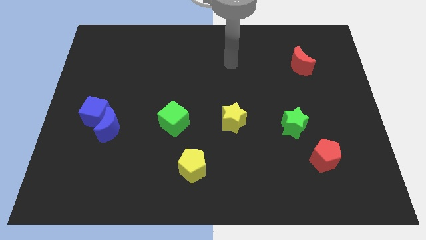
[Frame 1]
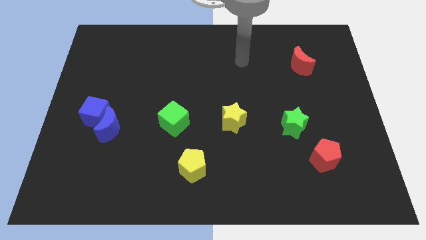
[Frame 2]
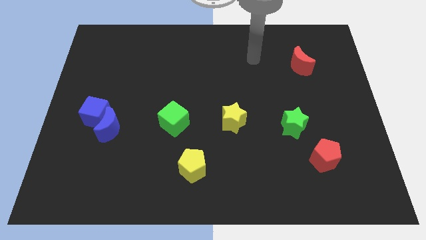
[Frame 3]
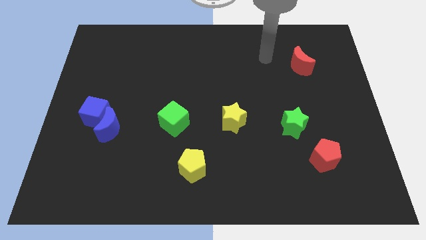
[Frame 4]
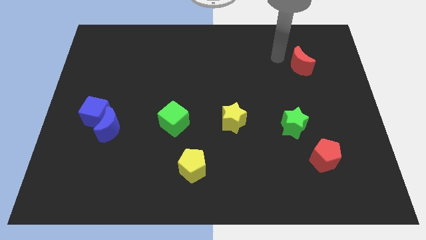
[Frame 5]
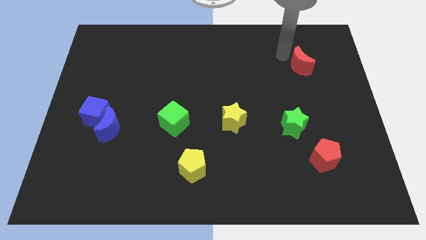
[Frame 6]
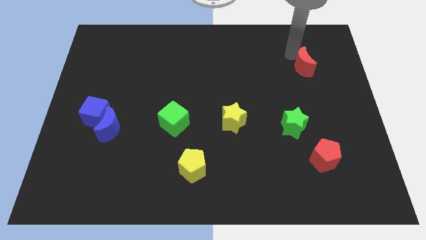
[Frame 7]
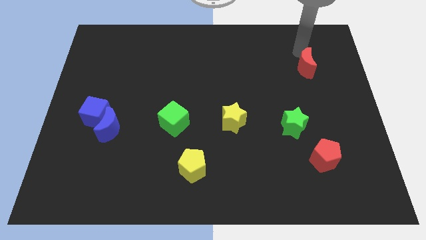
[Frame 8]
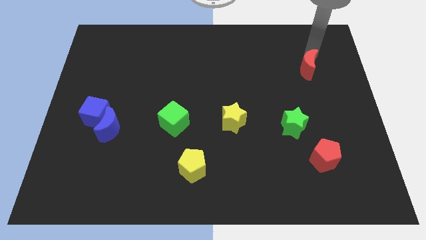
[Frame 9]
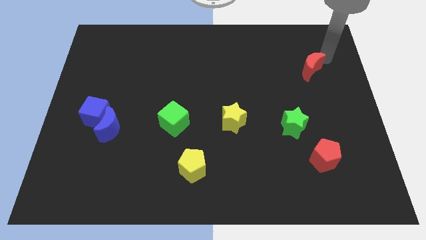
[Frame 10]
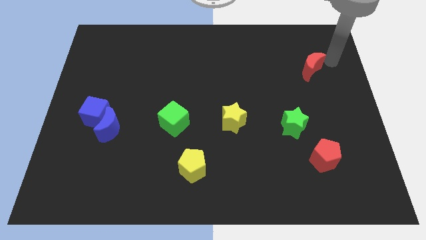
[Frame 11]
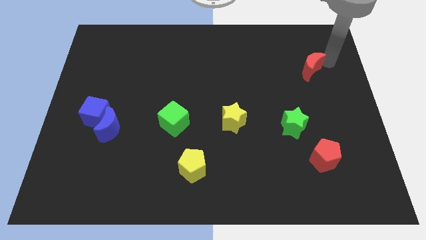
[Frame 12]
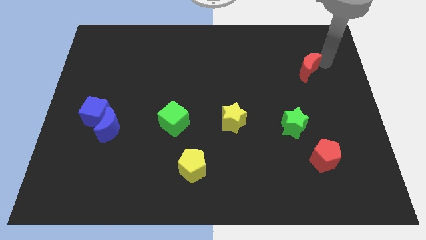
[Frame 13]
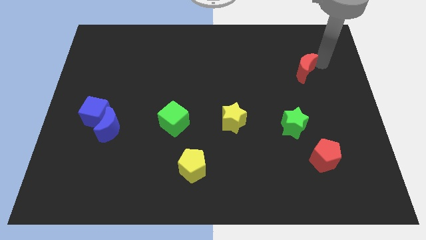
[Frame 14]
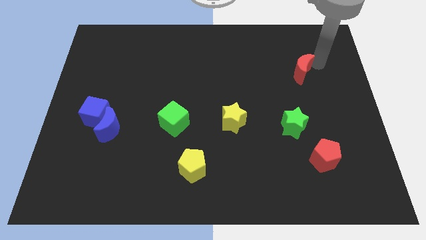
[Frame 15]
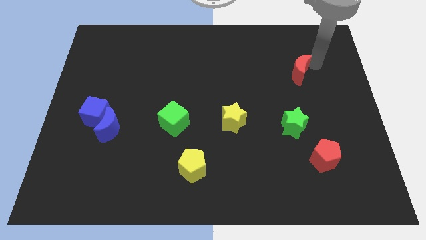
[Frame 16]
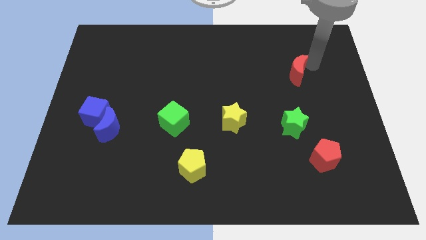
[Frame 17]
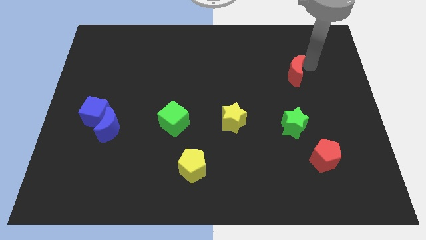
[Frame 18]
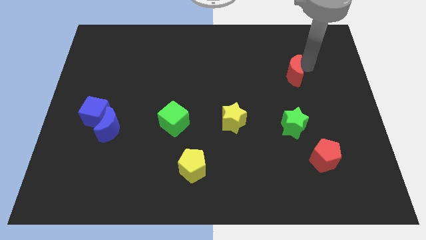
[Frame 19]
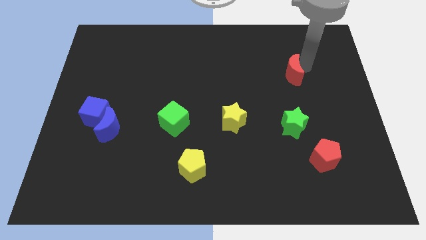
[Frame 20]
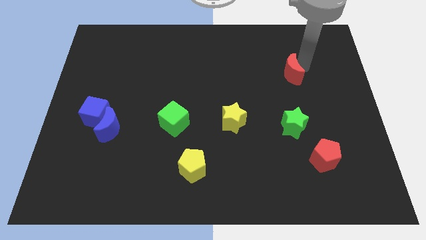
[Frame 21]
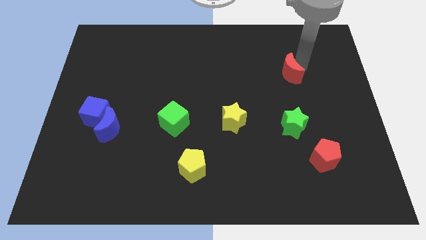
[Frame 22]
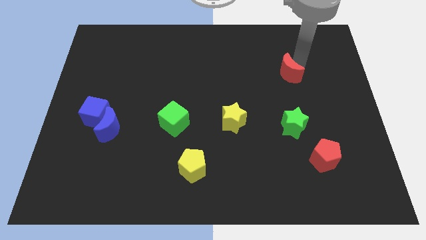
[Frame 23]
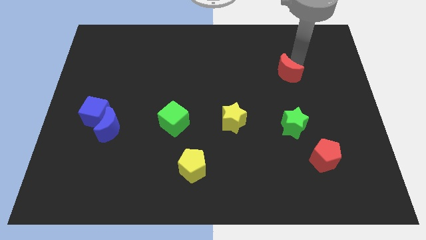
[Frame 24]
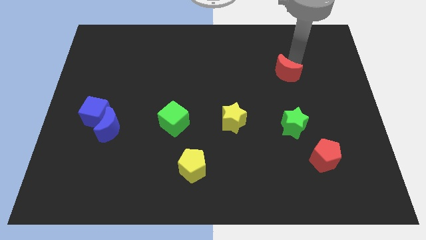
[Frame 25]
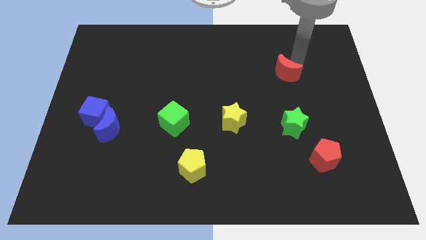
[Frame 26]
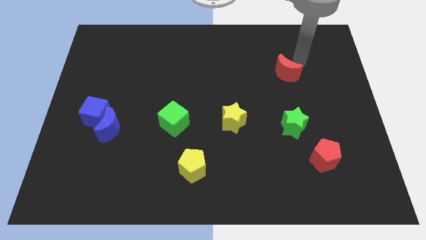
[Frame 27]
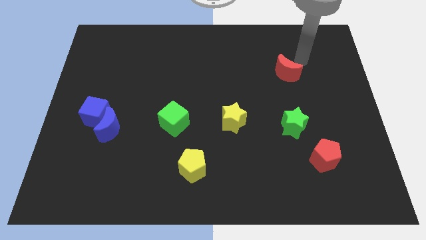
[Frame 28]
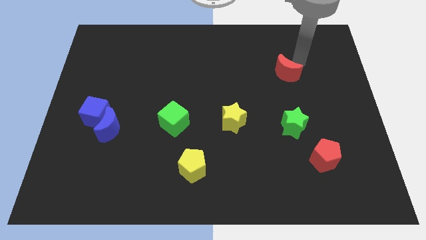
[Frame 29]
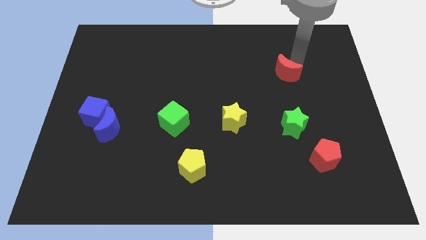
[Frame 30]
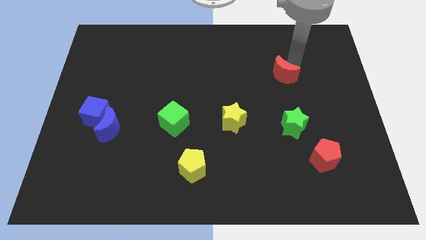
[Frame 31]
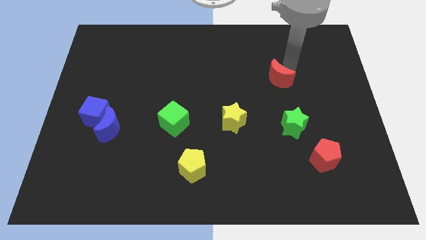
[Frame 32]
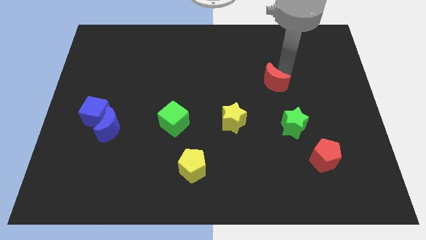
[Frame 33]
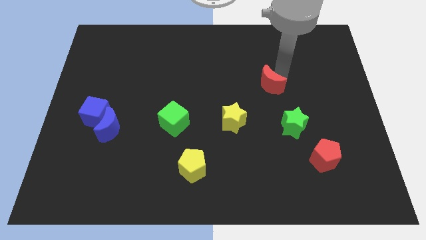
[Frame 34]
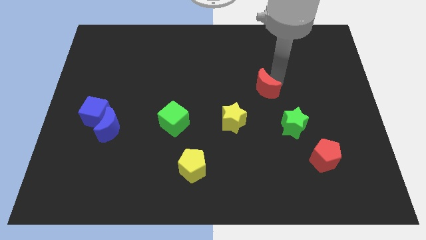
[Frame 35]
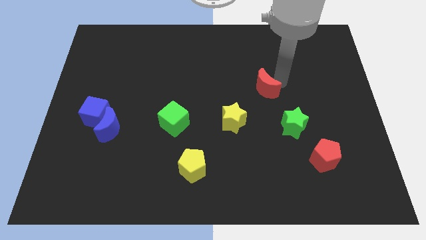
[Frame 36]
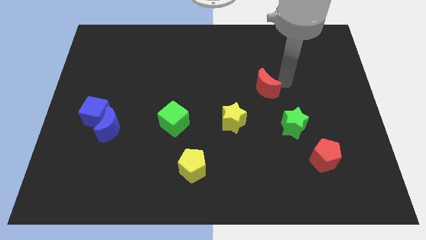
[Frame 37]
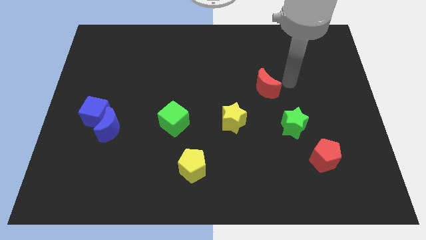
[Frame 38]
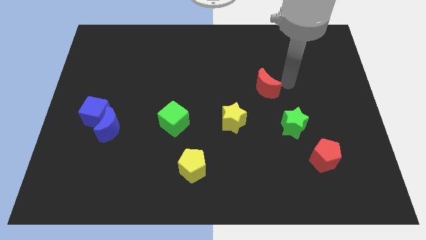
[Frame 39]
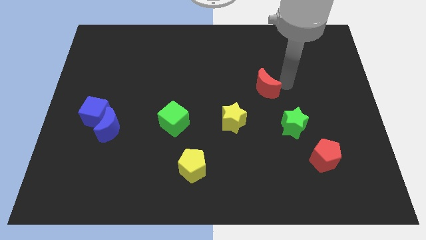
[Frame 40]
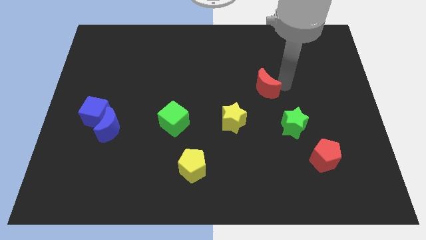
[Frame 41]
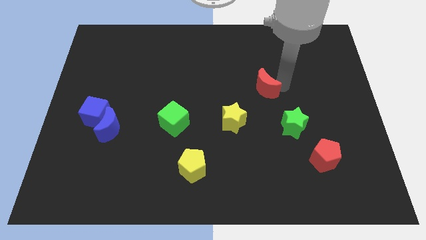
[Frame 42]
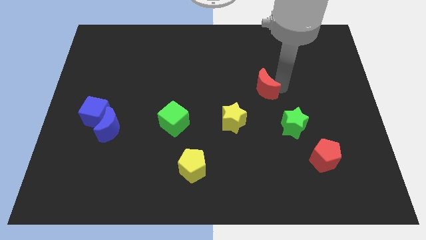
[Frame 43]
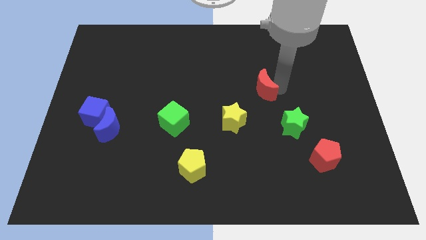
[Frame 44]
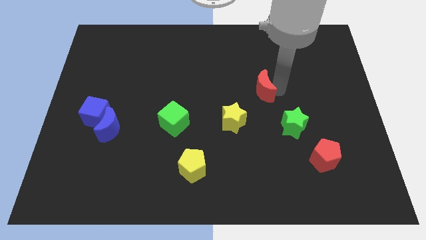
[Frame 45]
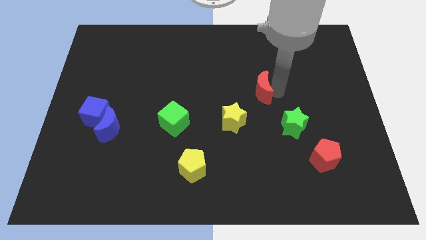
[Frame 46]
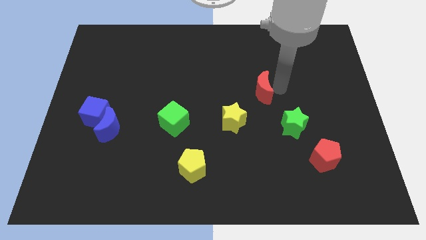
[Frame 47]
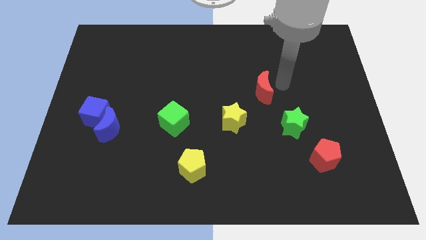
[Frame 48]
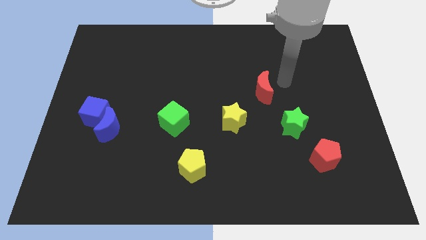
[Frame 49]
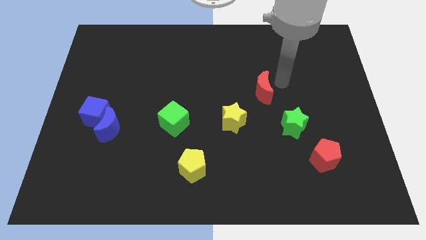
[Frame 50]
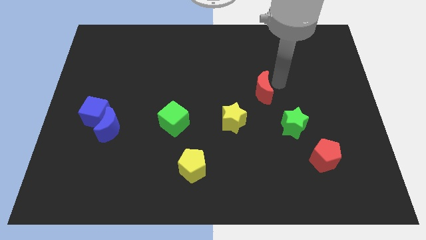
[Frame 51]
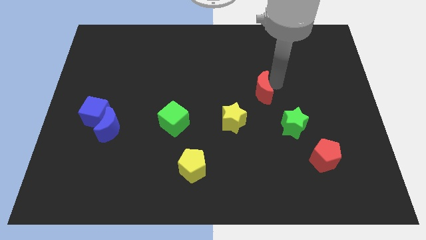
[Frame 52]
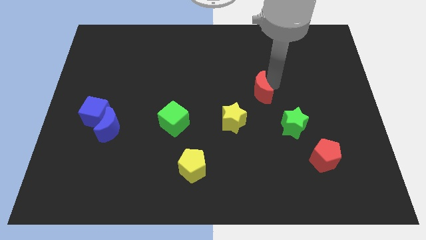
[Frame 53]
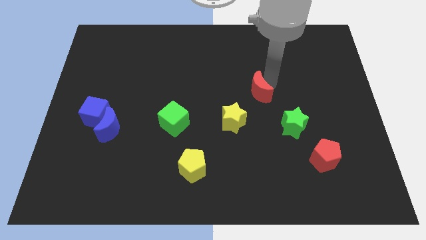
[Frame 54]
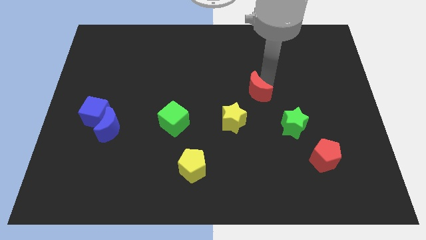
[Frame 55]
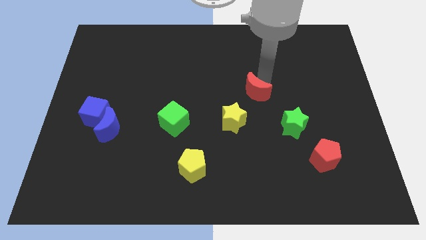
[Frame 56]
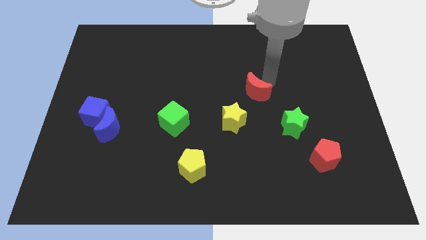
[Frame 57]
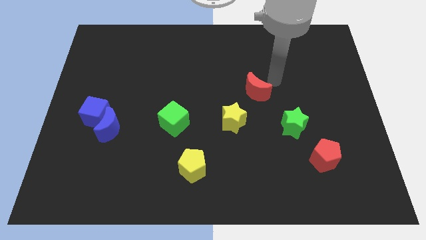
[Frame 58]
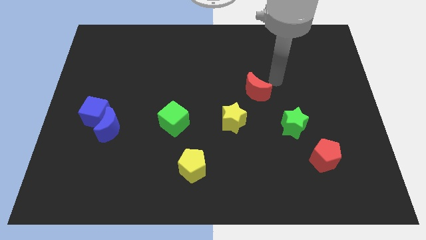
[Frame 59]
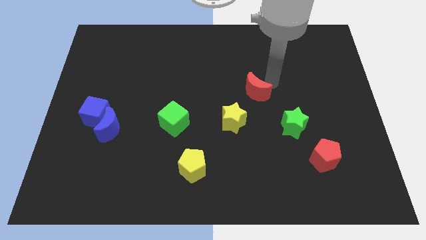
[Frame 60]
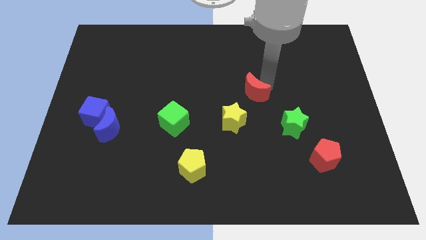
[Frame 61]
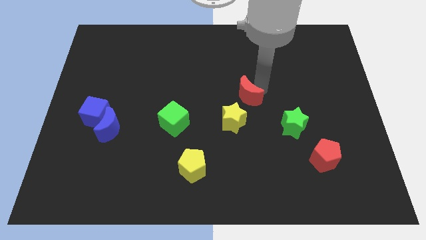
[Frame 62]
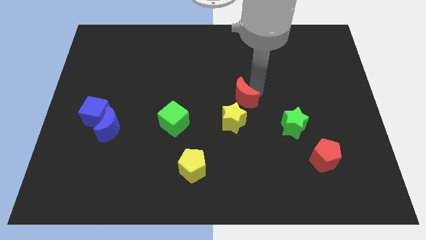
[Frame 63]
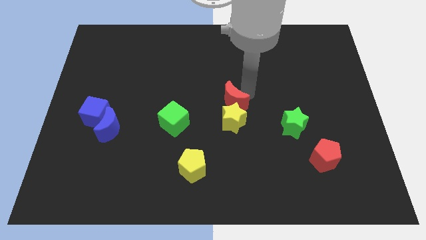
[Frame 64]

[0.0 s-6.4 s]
put the red moon close to the yellow star
